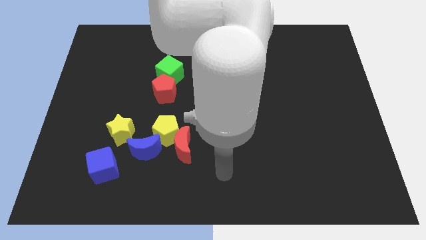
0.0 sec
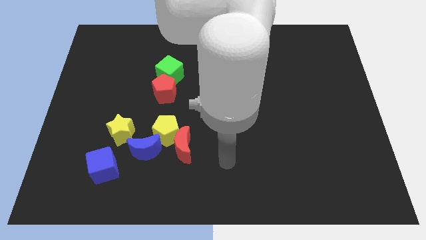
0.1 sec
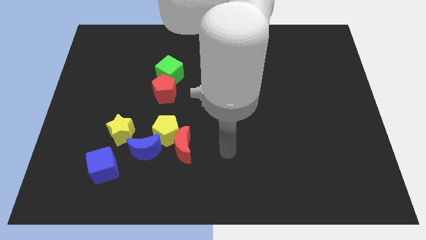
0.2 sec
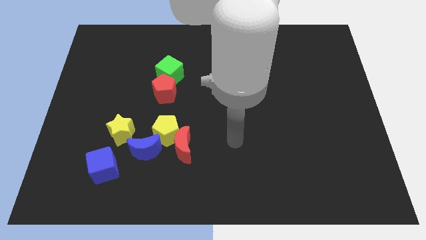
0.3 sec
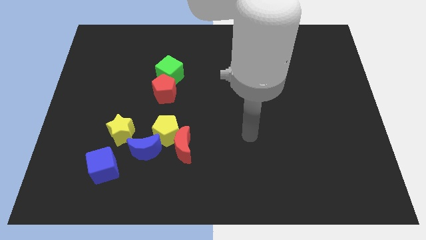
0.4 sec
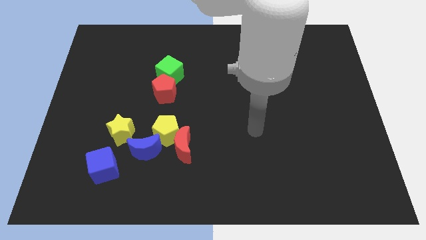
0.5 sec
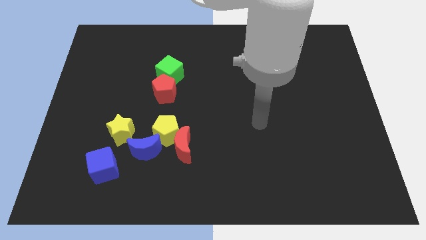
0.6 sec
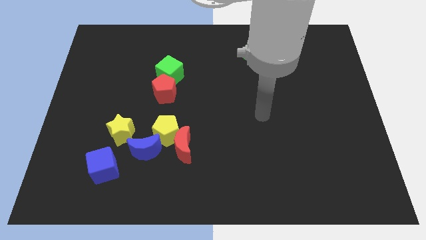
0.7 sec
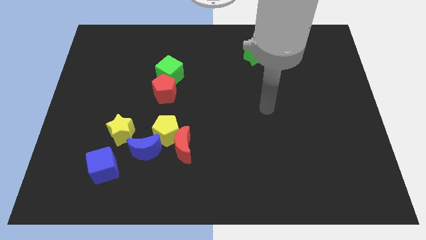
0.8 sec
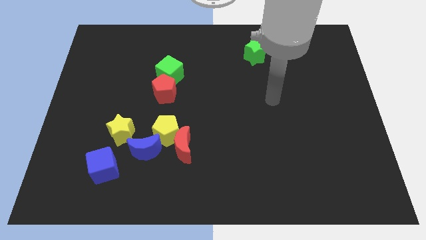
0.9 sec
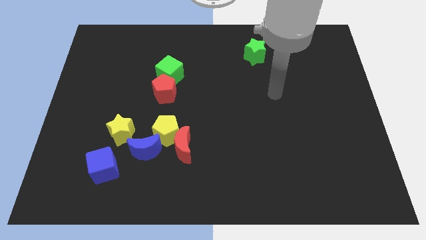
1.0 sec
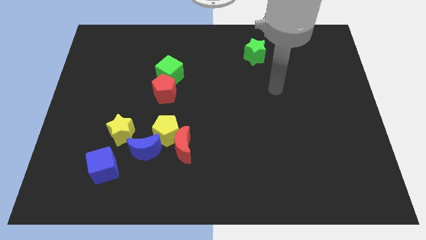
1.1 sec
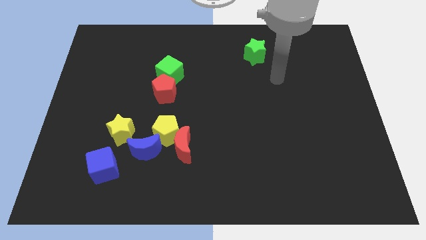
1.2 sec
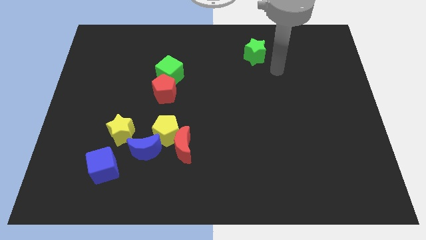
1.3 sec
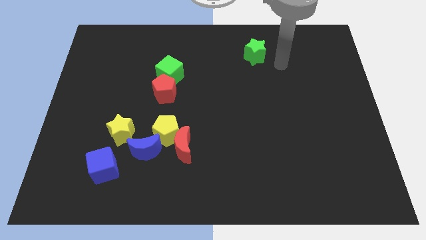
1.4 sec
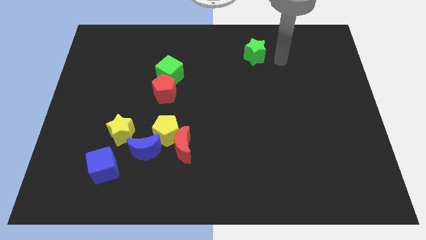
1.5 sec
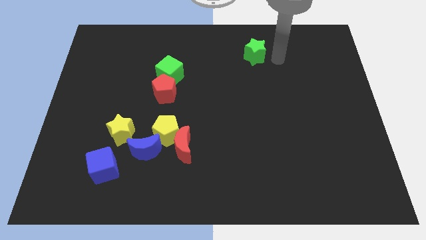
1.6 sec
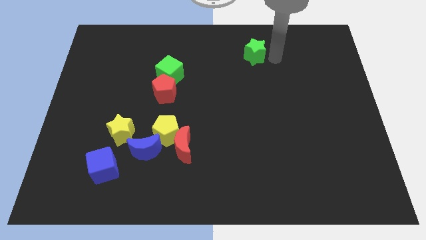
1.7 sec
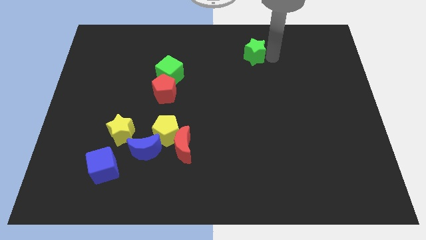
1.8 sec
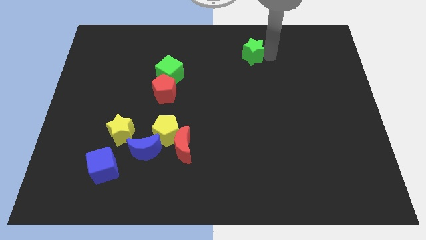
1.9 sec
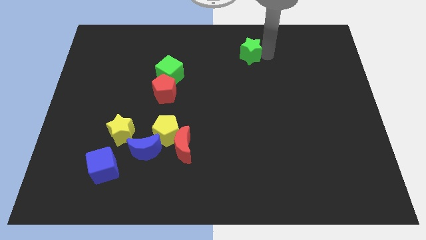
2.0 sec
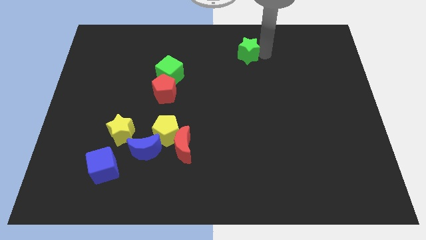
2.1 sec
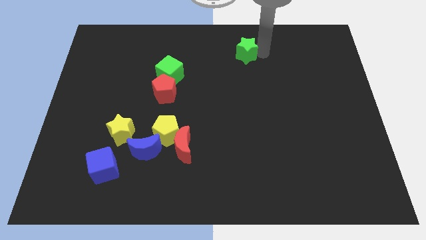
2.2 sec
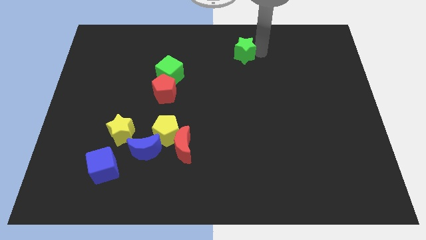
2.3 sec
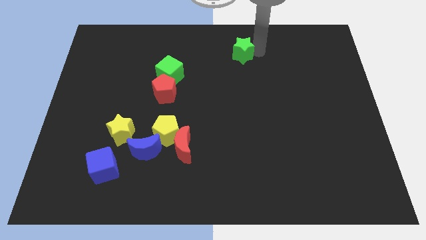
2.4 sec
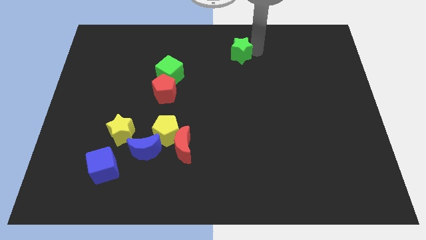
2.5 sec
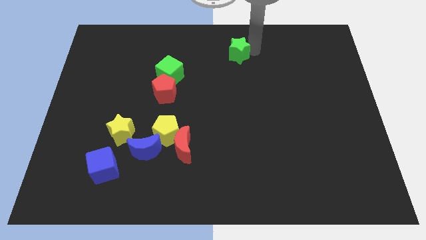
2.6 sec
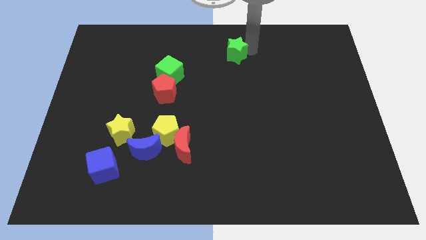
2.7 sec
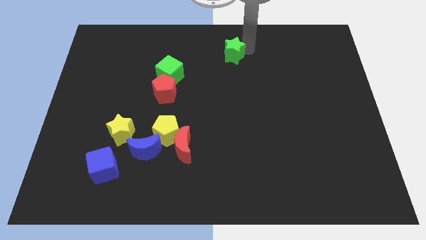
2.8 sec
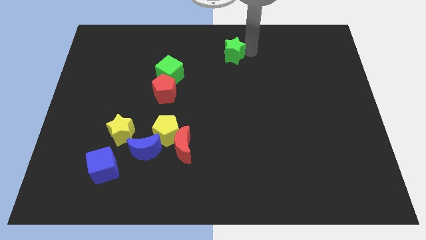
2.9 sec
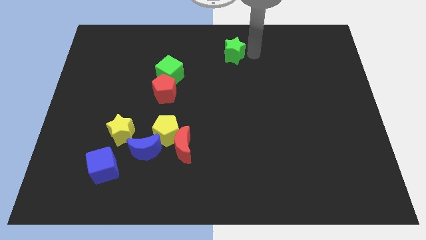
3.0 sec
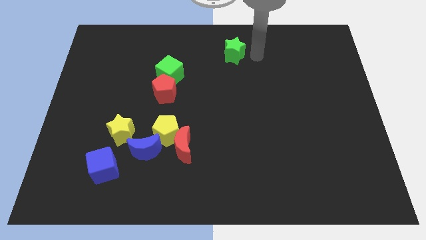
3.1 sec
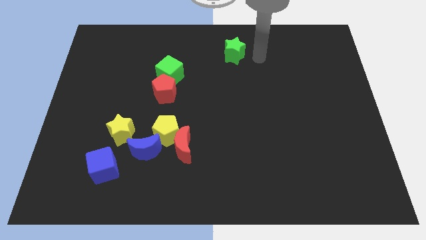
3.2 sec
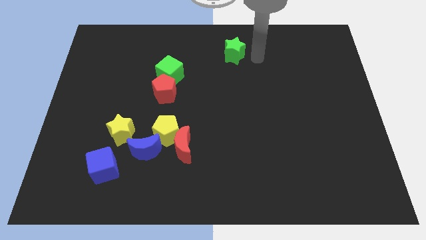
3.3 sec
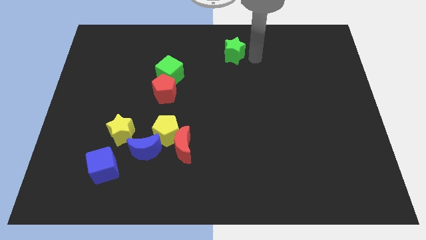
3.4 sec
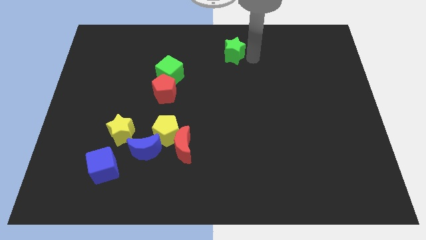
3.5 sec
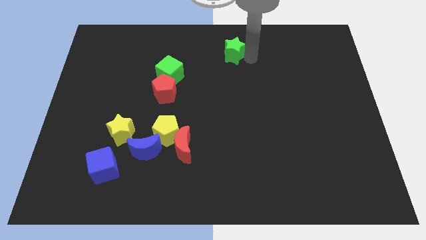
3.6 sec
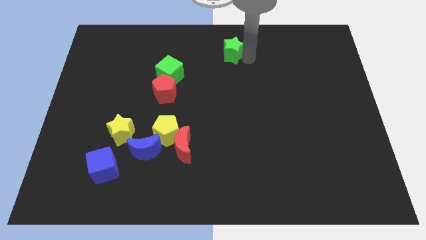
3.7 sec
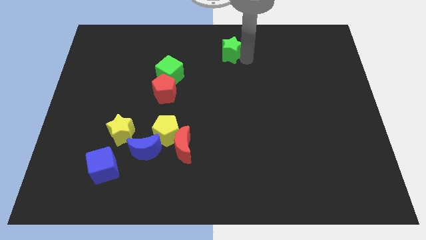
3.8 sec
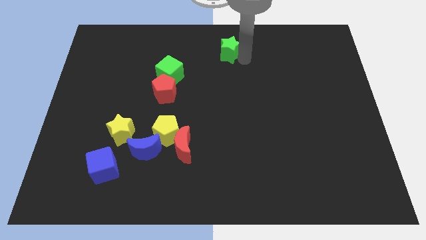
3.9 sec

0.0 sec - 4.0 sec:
slightly push the green star to the left

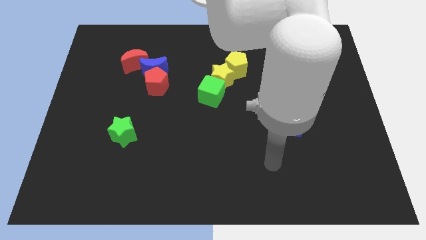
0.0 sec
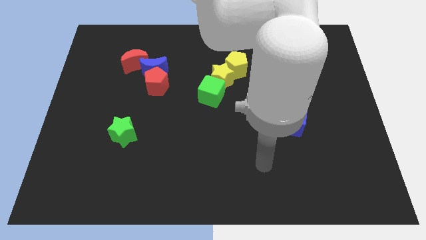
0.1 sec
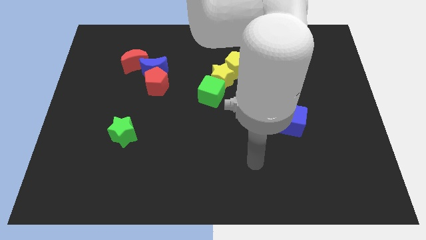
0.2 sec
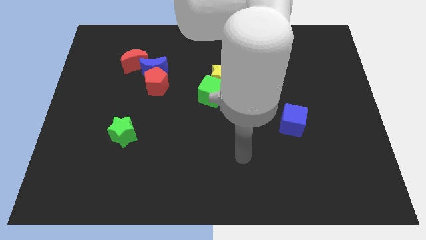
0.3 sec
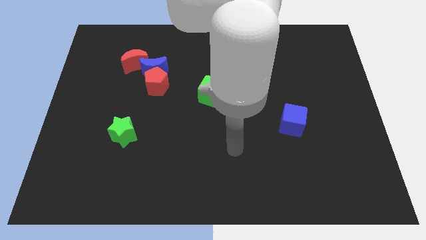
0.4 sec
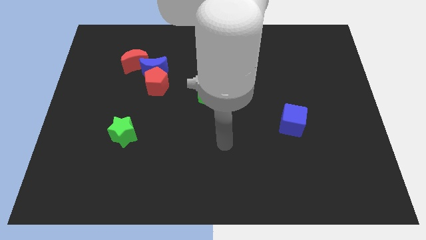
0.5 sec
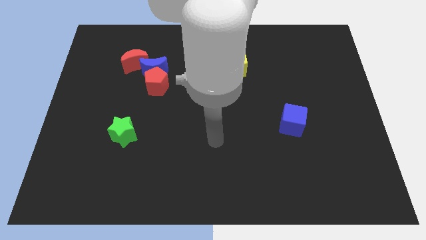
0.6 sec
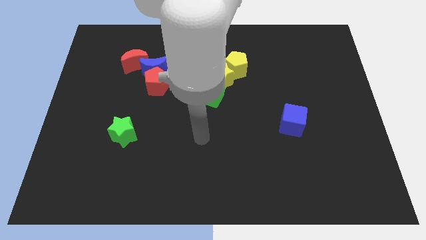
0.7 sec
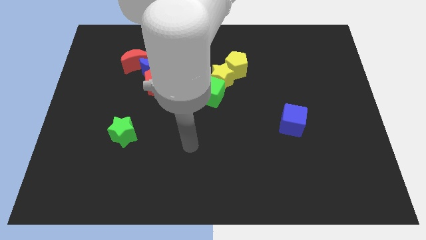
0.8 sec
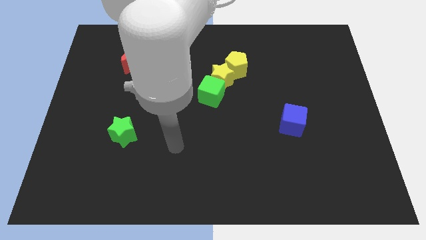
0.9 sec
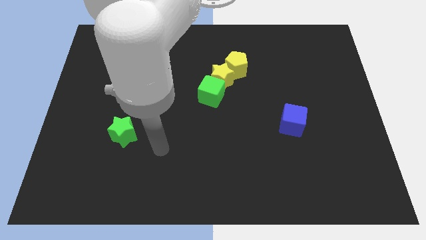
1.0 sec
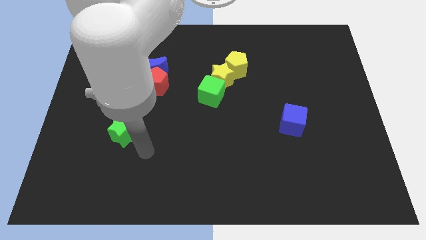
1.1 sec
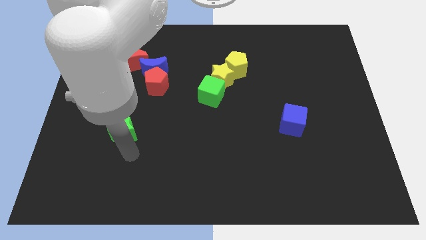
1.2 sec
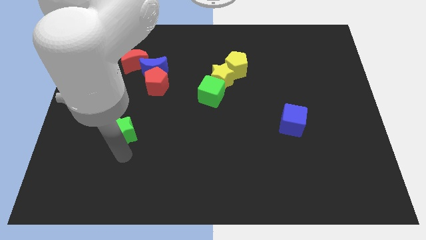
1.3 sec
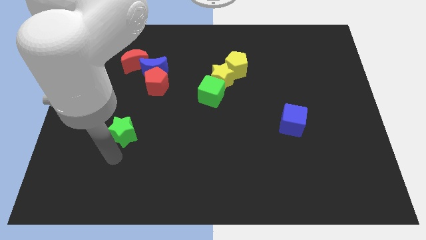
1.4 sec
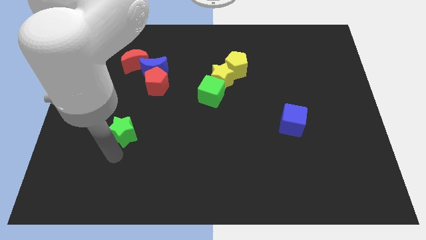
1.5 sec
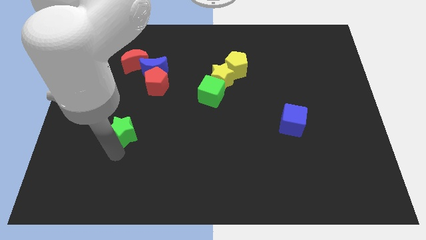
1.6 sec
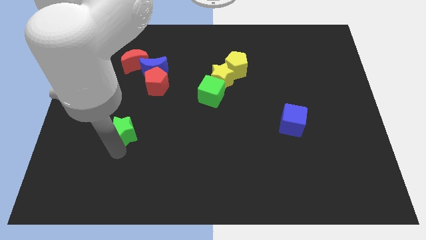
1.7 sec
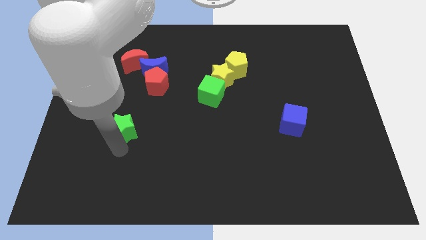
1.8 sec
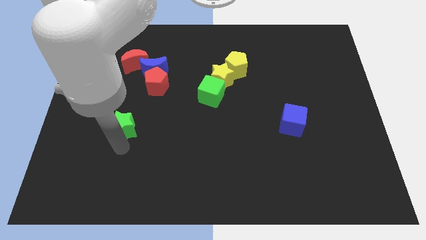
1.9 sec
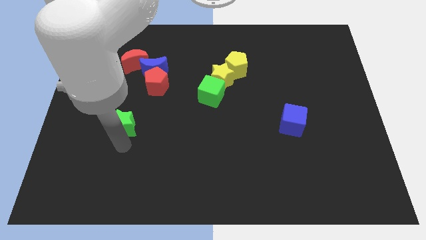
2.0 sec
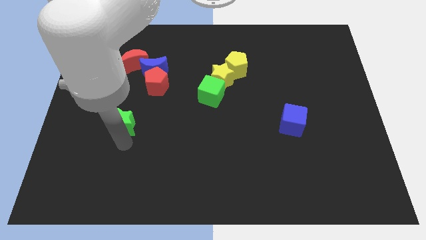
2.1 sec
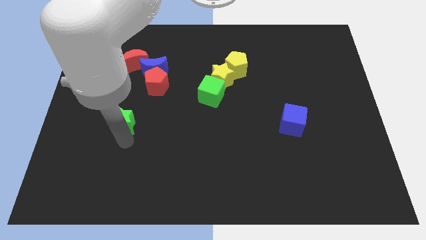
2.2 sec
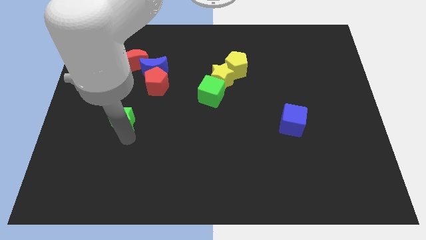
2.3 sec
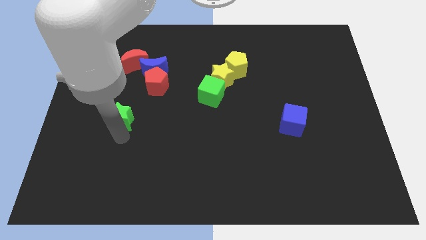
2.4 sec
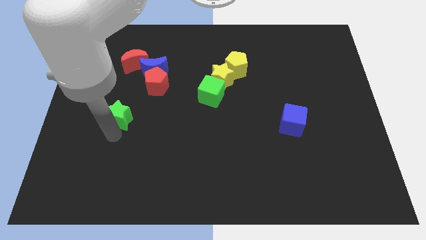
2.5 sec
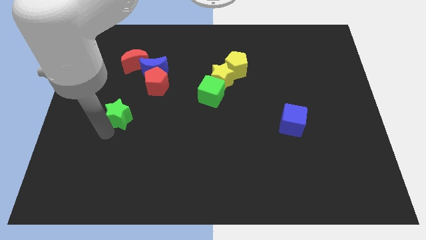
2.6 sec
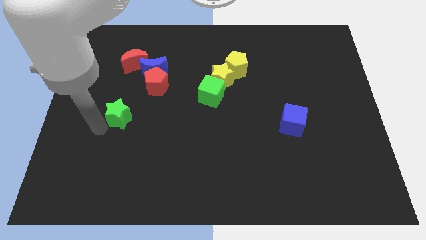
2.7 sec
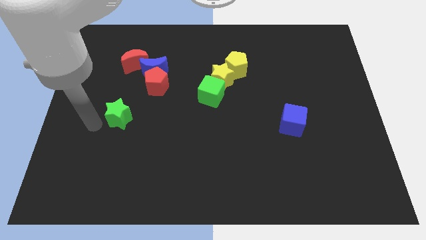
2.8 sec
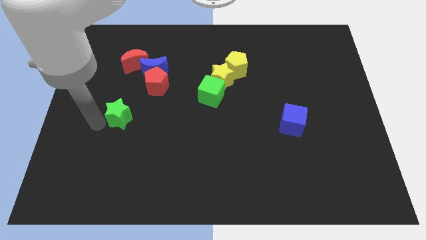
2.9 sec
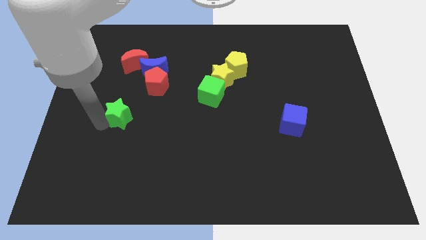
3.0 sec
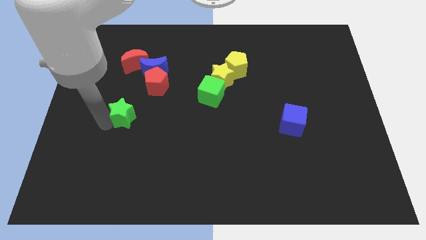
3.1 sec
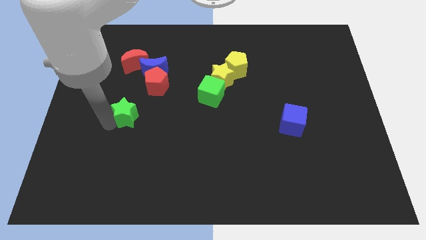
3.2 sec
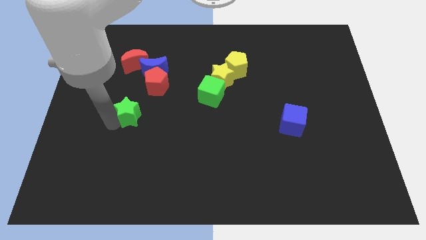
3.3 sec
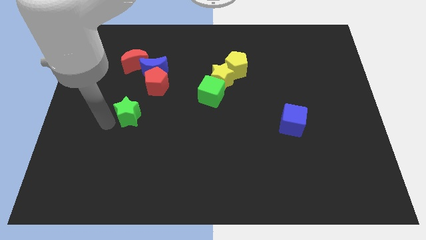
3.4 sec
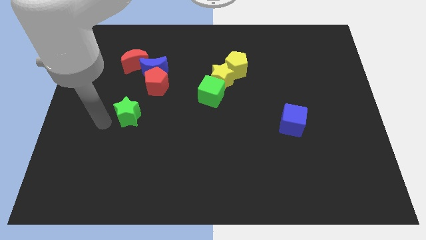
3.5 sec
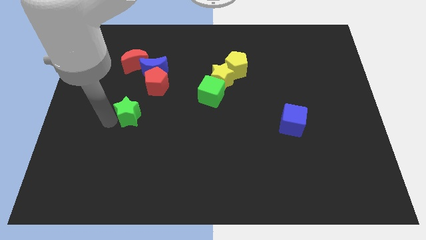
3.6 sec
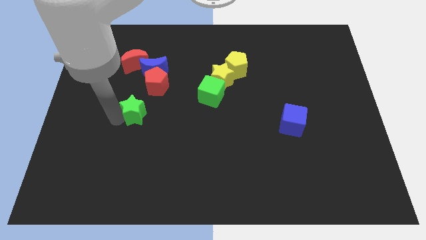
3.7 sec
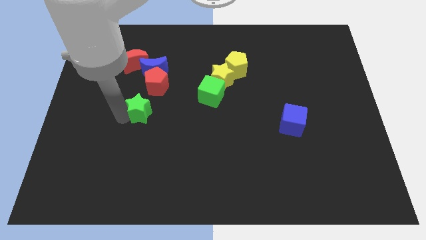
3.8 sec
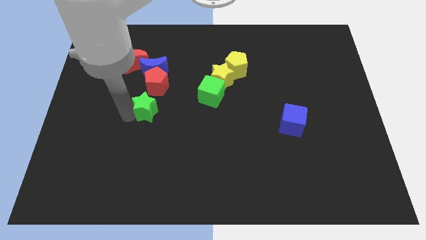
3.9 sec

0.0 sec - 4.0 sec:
slightly slide the green star upwards and right

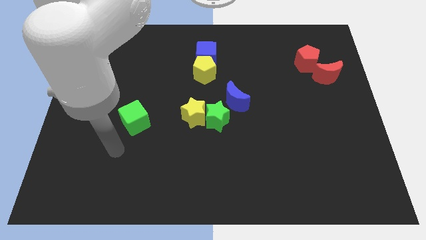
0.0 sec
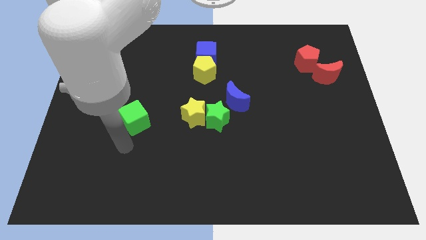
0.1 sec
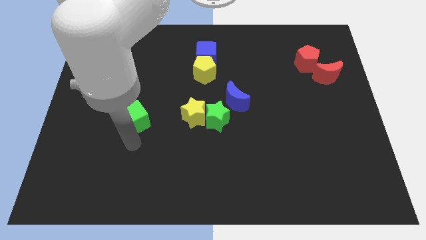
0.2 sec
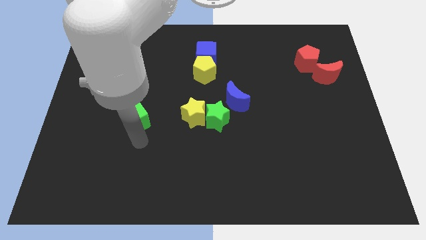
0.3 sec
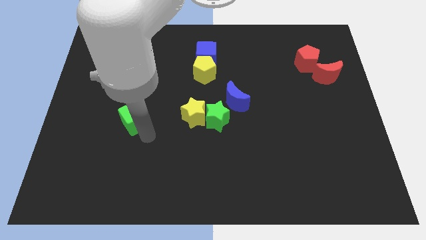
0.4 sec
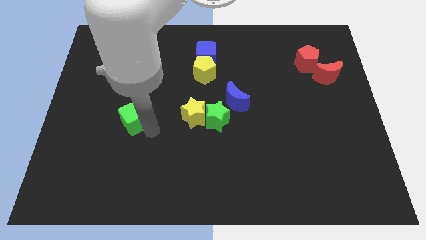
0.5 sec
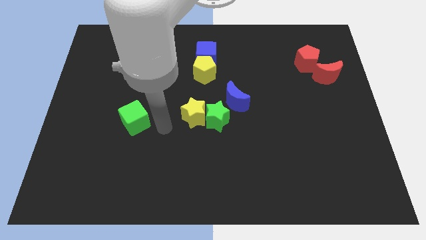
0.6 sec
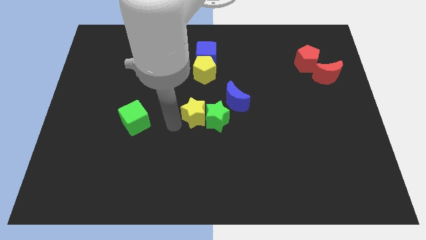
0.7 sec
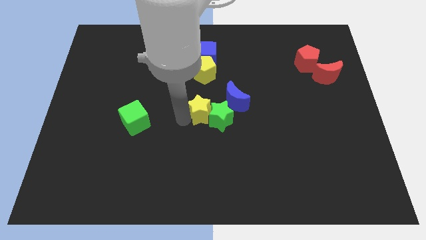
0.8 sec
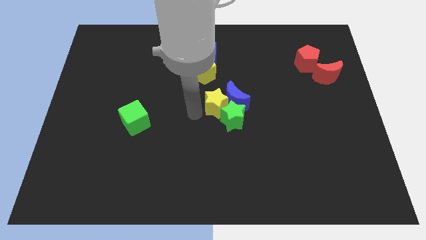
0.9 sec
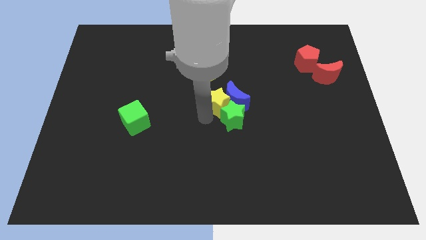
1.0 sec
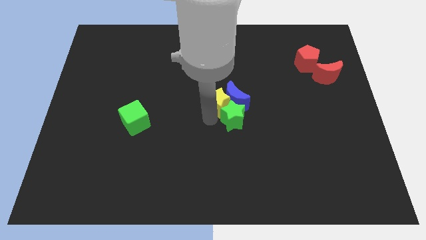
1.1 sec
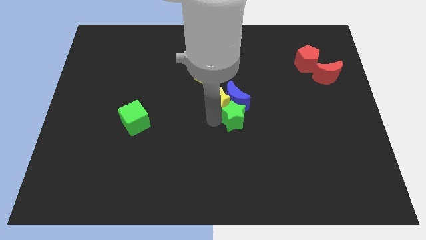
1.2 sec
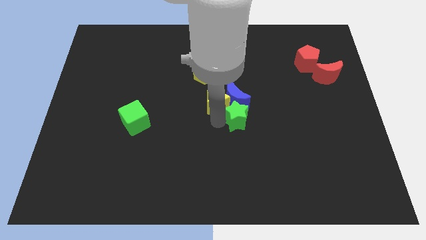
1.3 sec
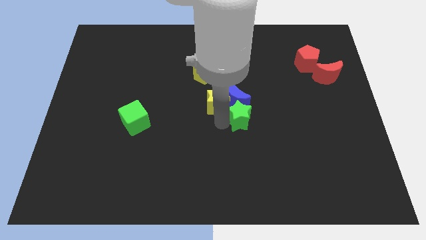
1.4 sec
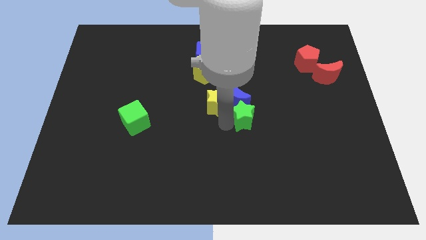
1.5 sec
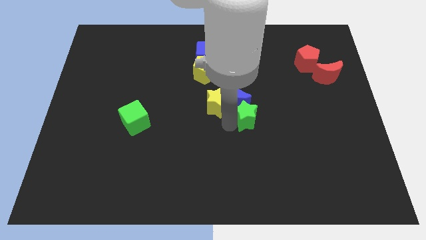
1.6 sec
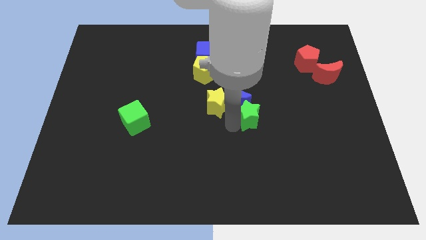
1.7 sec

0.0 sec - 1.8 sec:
push the green star to the right a little
